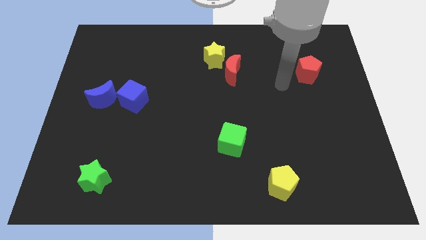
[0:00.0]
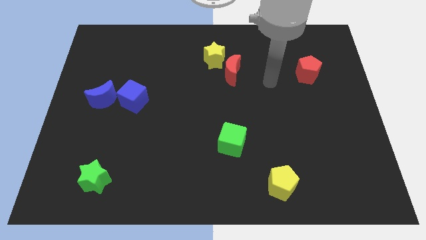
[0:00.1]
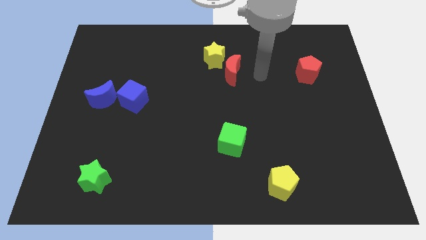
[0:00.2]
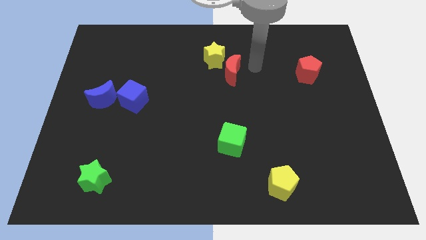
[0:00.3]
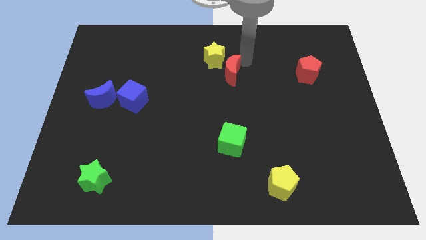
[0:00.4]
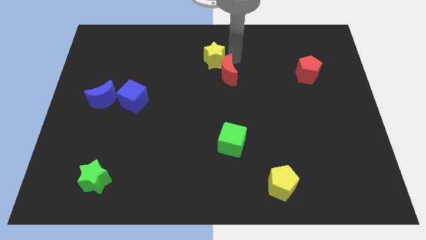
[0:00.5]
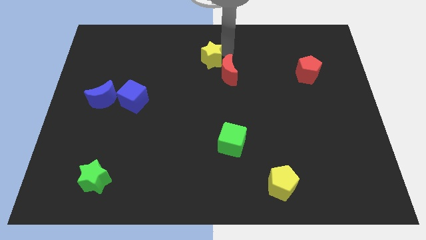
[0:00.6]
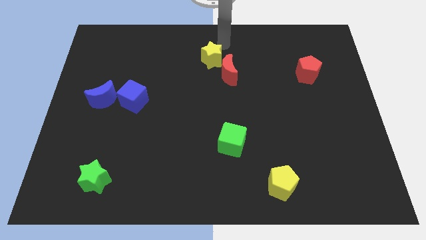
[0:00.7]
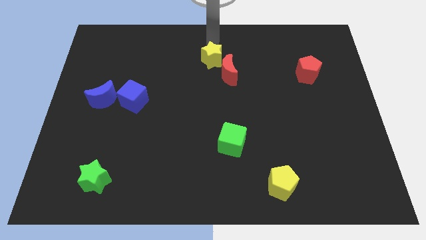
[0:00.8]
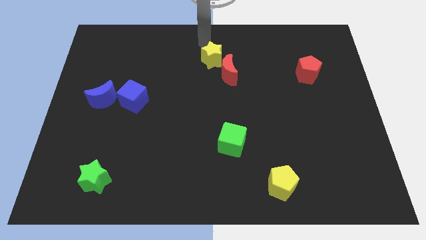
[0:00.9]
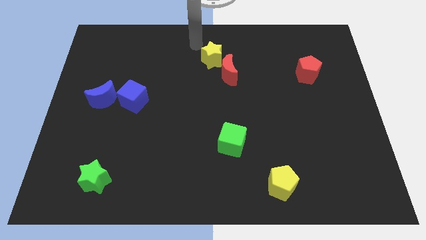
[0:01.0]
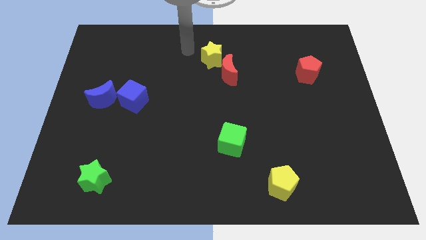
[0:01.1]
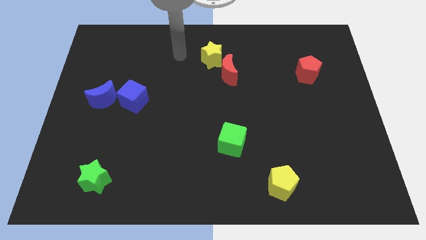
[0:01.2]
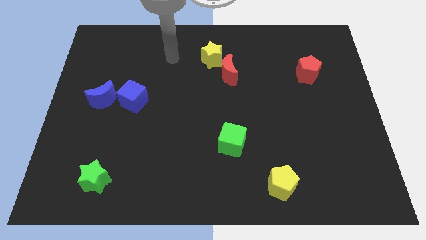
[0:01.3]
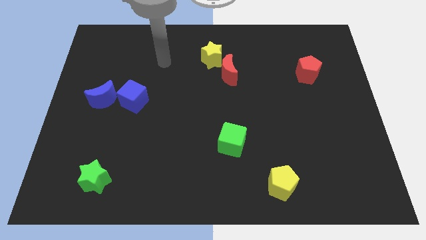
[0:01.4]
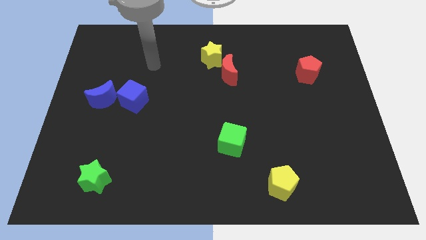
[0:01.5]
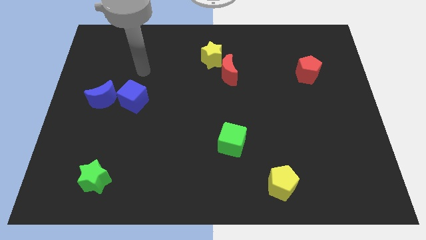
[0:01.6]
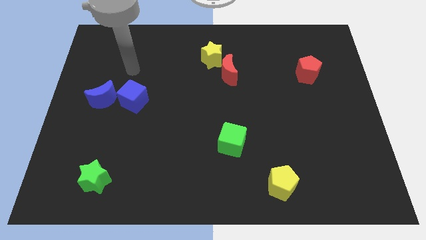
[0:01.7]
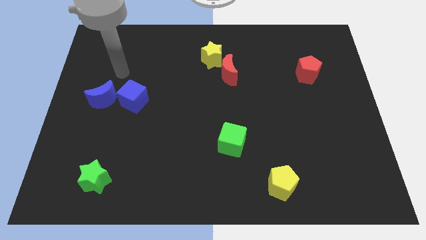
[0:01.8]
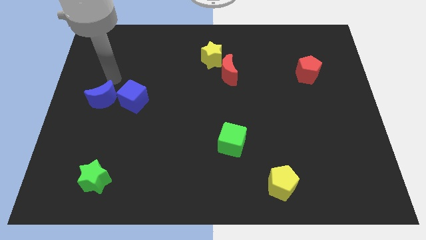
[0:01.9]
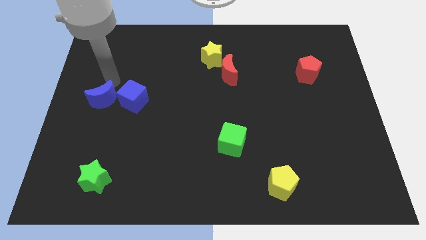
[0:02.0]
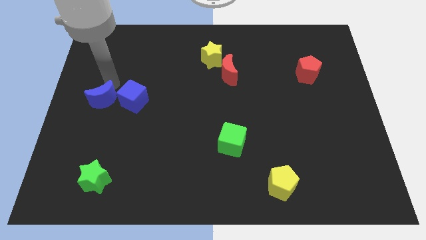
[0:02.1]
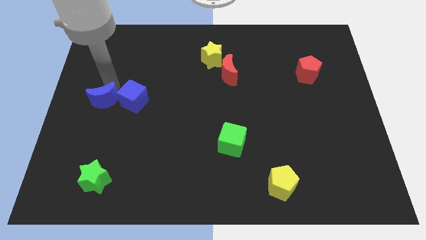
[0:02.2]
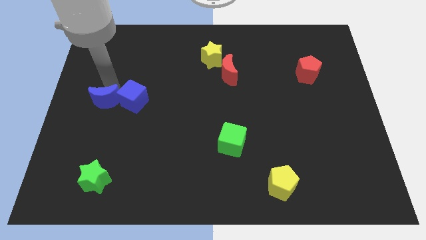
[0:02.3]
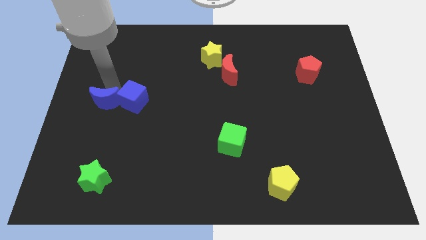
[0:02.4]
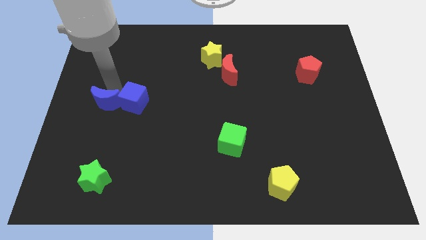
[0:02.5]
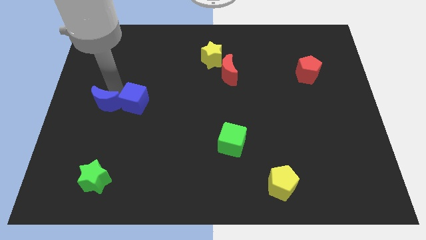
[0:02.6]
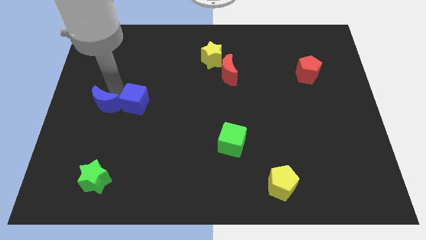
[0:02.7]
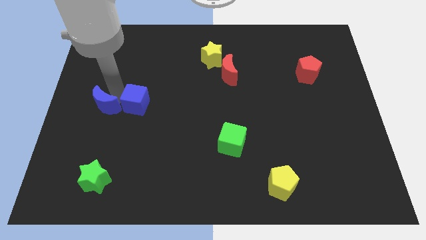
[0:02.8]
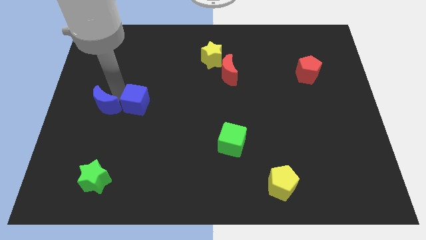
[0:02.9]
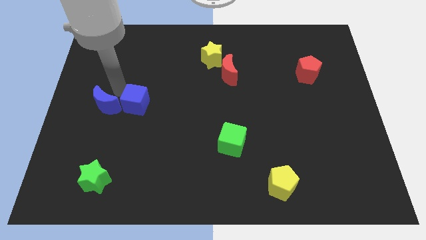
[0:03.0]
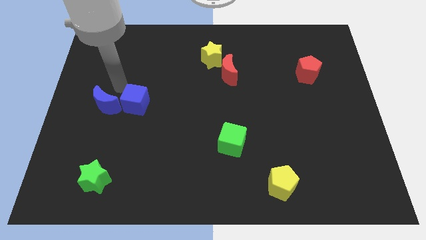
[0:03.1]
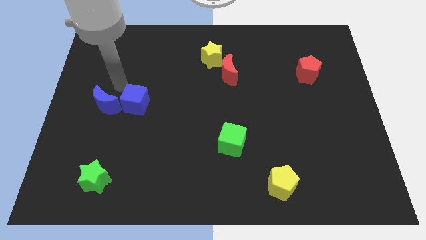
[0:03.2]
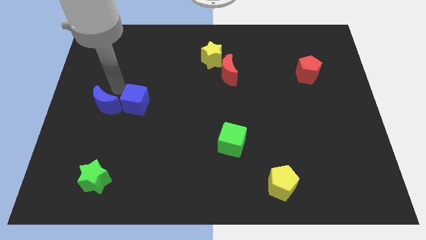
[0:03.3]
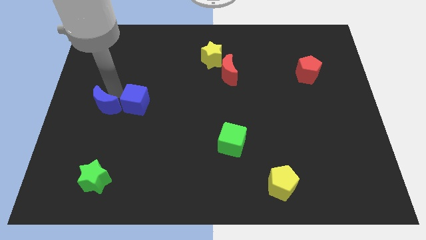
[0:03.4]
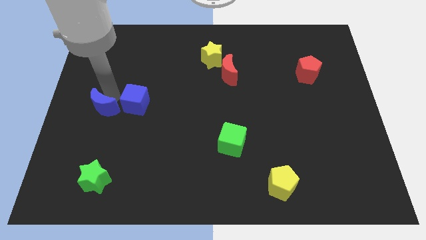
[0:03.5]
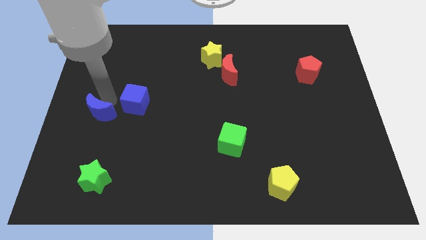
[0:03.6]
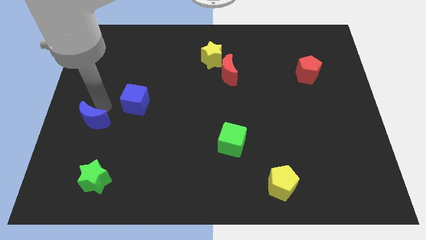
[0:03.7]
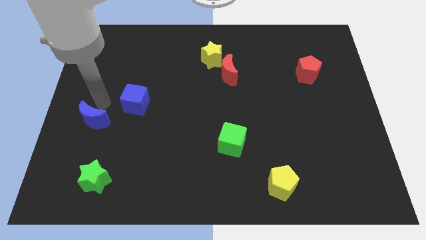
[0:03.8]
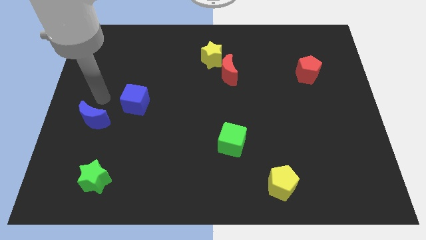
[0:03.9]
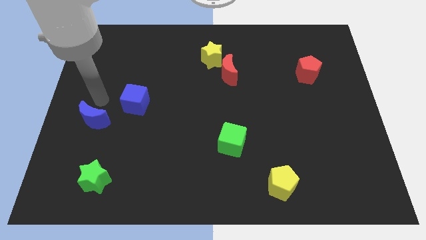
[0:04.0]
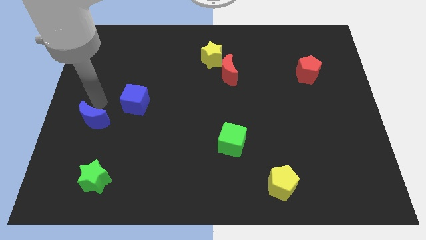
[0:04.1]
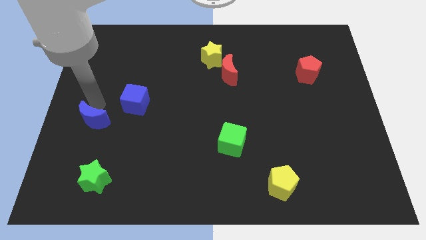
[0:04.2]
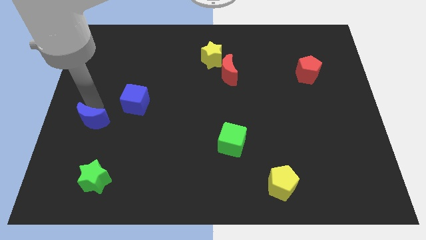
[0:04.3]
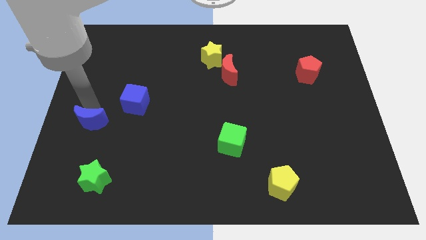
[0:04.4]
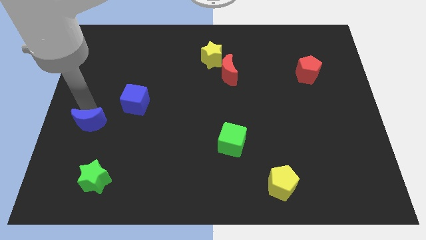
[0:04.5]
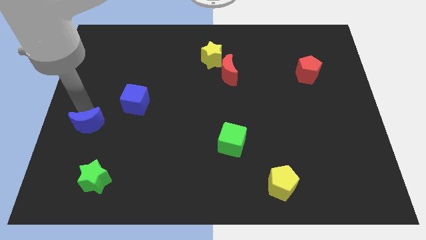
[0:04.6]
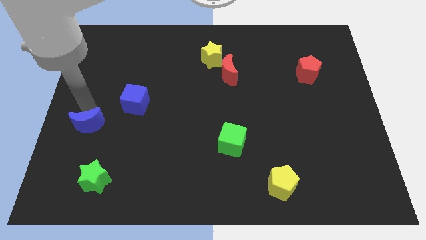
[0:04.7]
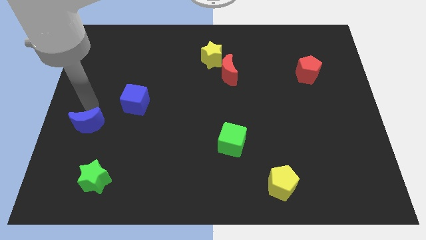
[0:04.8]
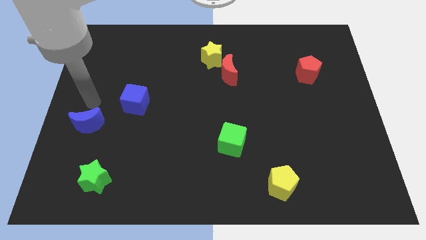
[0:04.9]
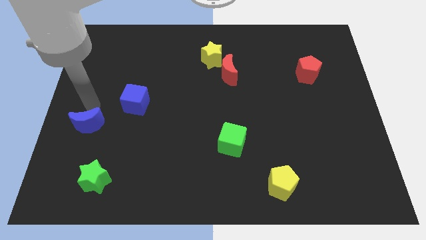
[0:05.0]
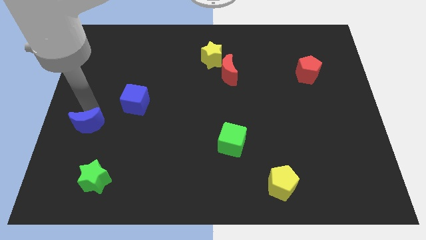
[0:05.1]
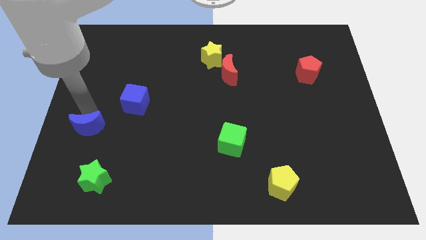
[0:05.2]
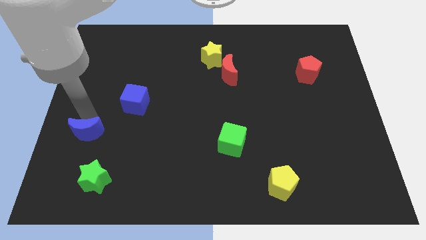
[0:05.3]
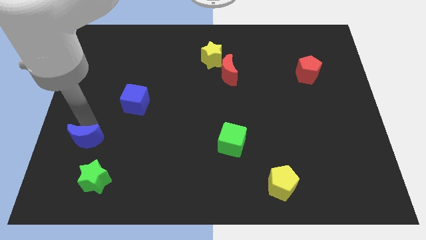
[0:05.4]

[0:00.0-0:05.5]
move the blue moon to the top left side of the green star

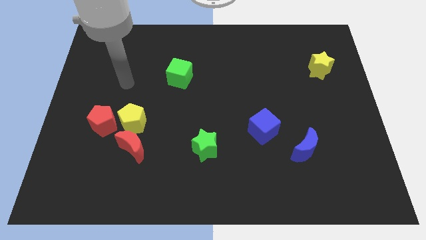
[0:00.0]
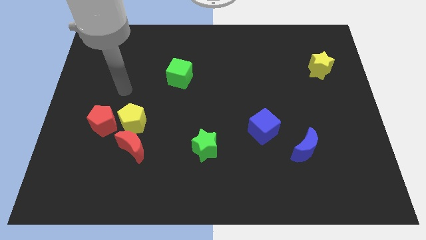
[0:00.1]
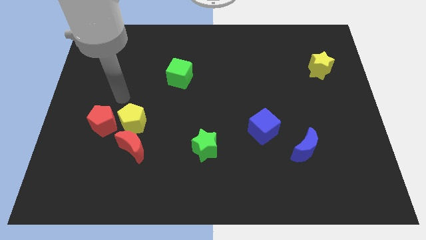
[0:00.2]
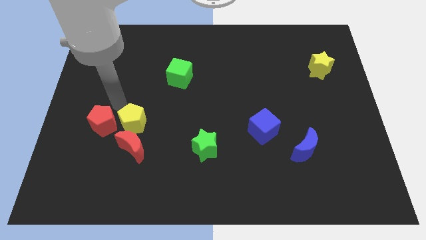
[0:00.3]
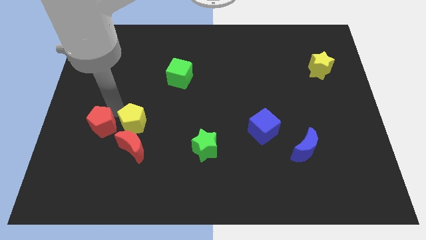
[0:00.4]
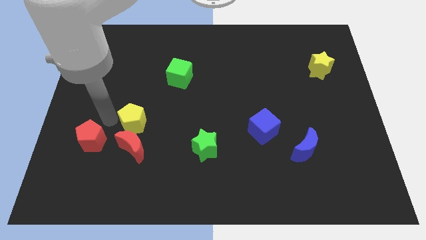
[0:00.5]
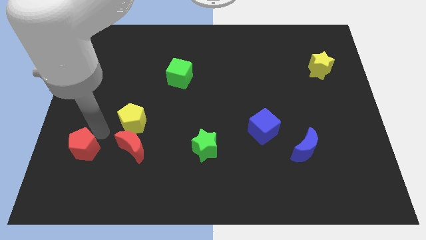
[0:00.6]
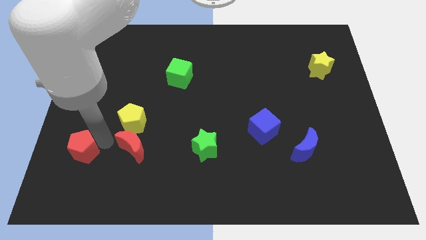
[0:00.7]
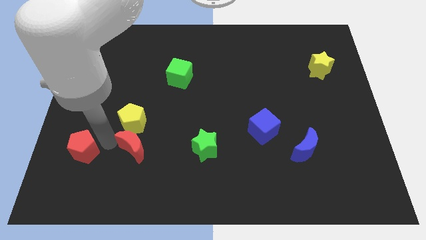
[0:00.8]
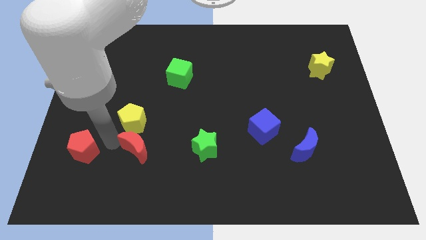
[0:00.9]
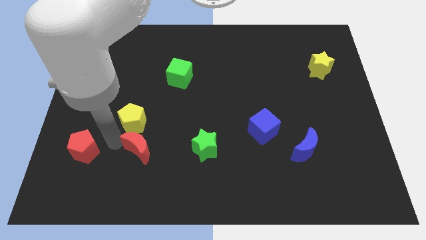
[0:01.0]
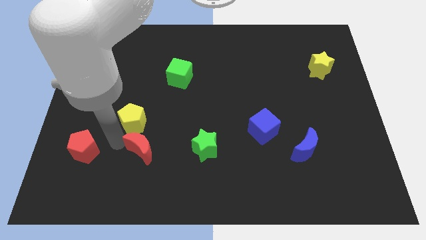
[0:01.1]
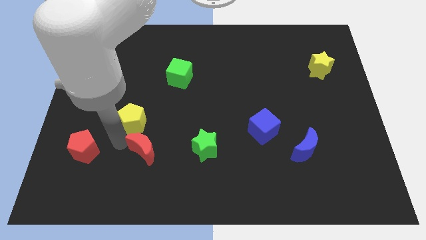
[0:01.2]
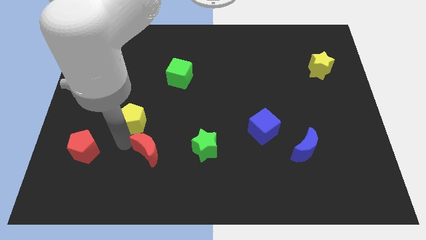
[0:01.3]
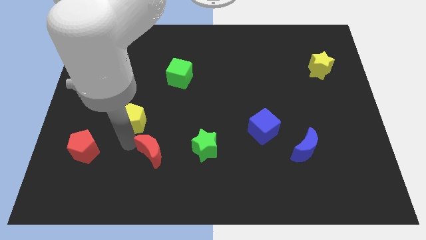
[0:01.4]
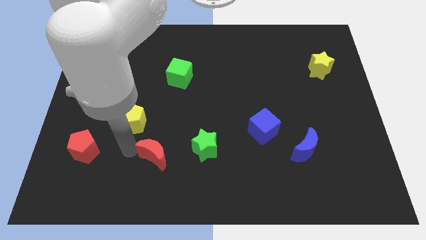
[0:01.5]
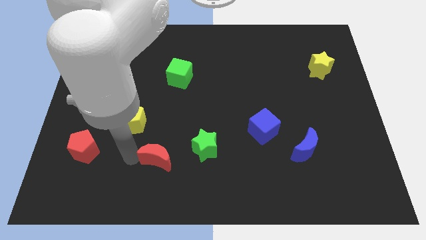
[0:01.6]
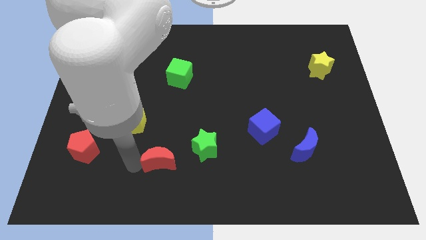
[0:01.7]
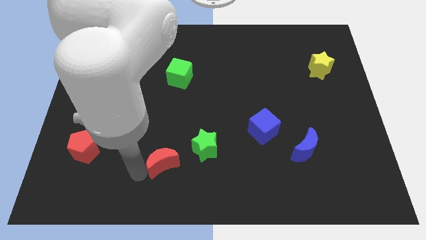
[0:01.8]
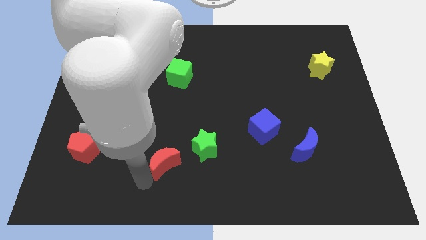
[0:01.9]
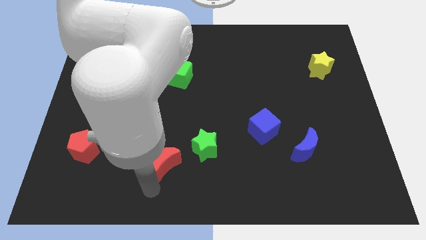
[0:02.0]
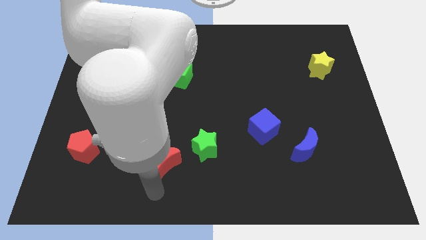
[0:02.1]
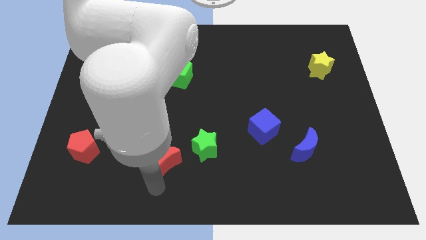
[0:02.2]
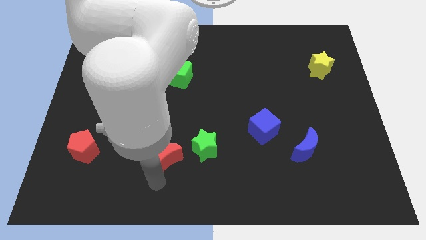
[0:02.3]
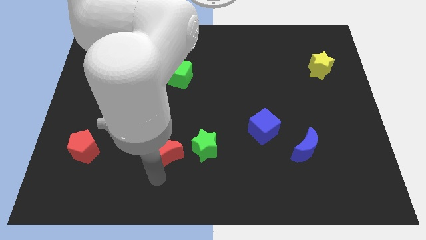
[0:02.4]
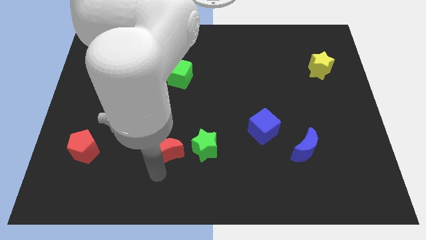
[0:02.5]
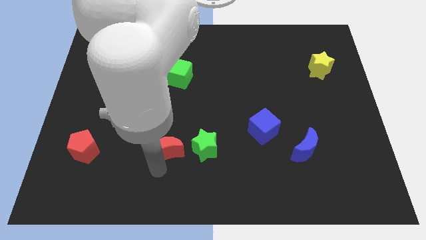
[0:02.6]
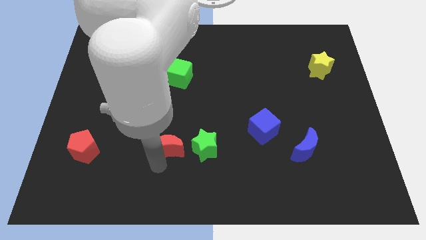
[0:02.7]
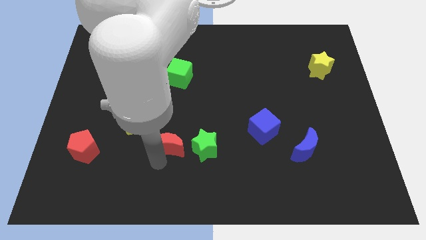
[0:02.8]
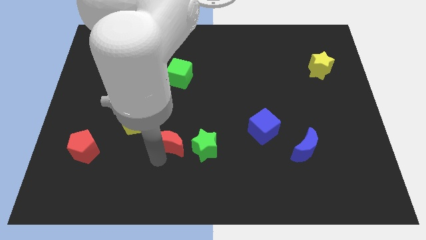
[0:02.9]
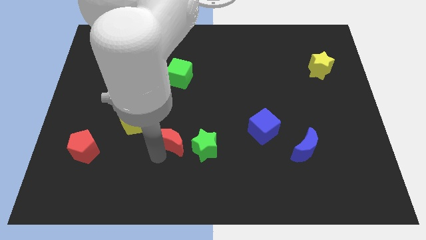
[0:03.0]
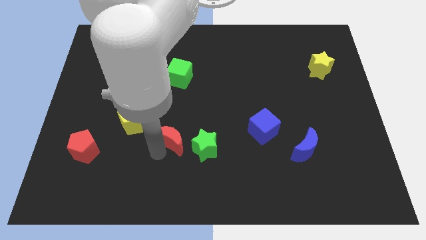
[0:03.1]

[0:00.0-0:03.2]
push the red moon to the right side of the yellow pentagon
